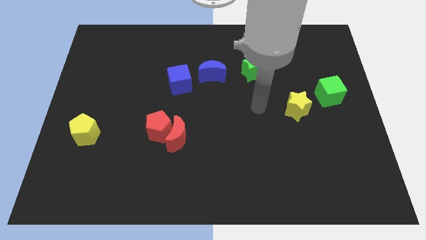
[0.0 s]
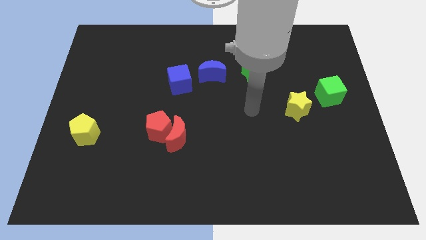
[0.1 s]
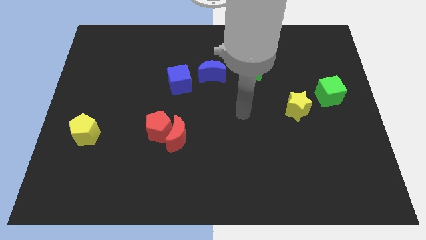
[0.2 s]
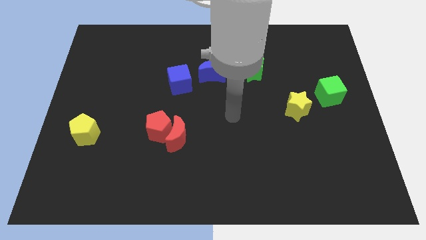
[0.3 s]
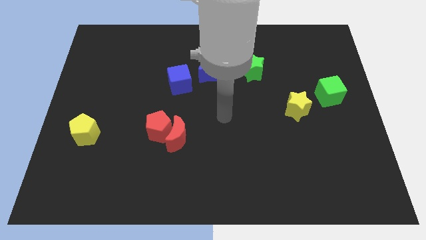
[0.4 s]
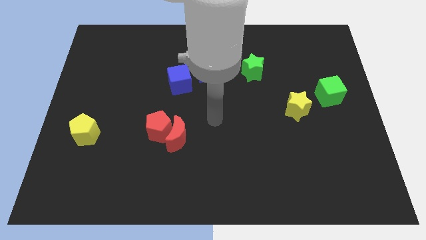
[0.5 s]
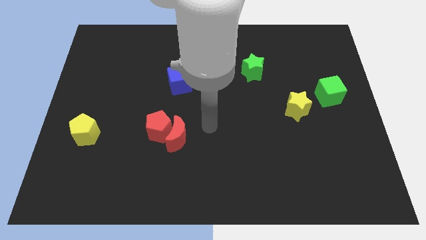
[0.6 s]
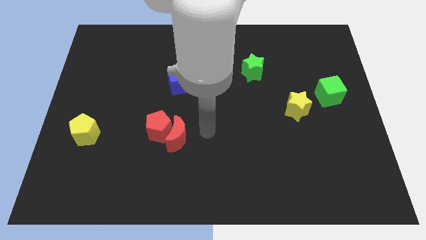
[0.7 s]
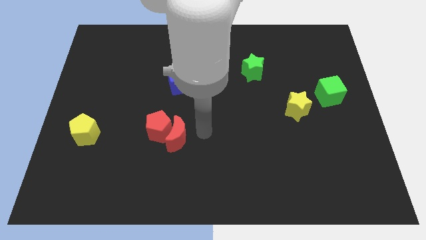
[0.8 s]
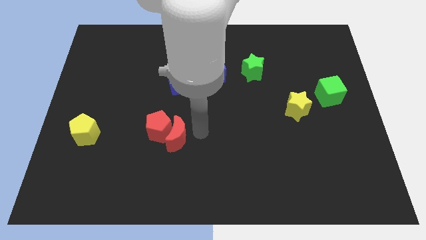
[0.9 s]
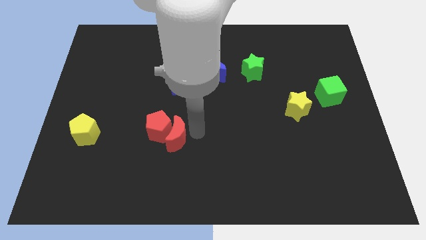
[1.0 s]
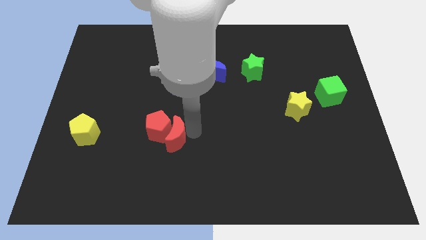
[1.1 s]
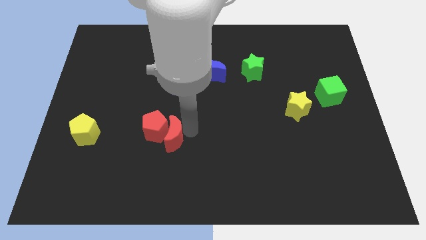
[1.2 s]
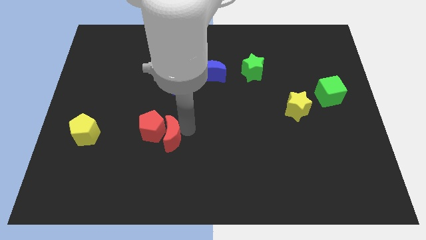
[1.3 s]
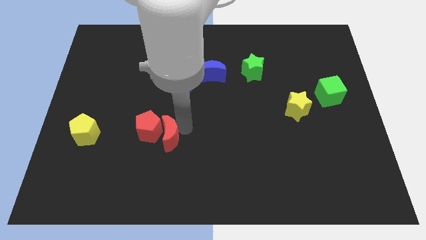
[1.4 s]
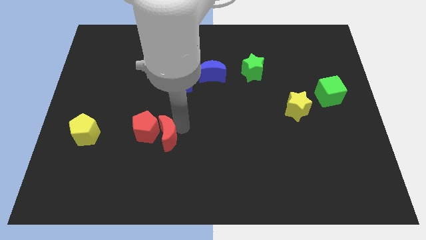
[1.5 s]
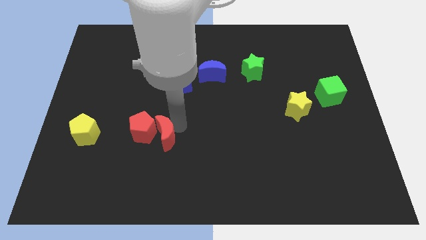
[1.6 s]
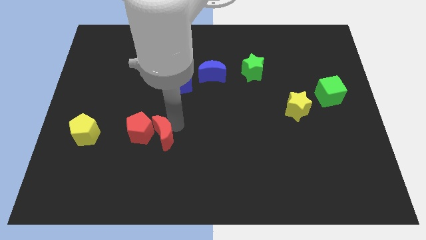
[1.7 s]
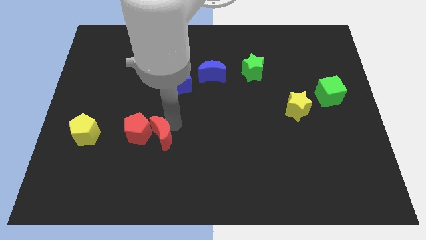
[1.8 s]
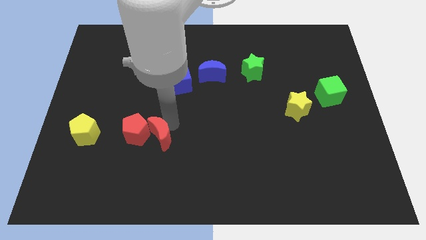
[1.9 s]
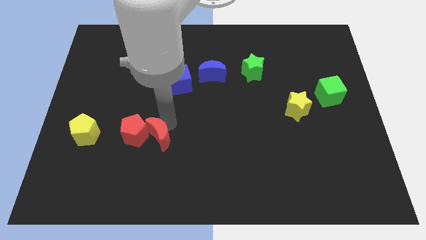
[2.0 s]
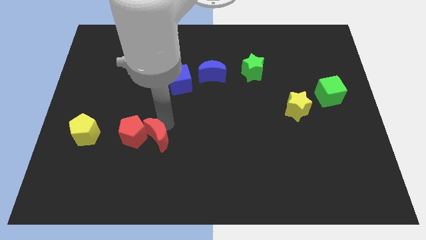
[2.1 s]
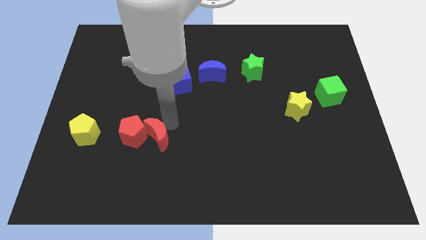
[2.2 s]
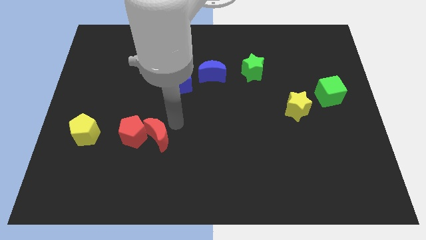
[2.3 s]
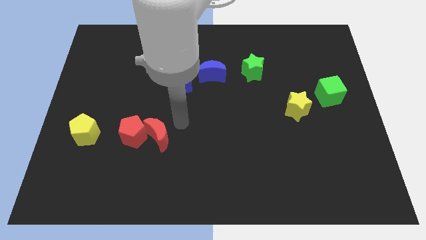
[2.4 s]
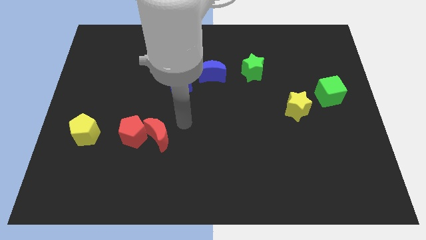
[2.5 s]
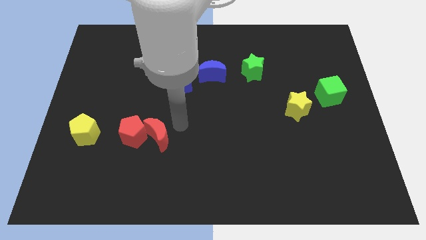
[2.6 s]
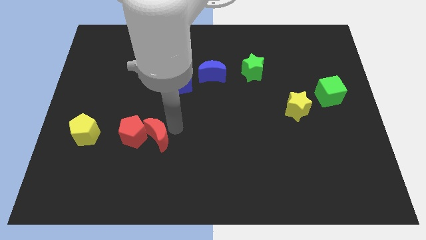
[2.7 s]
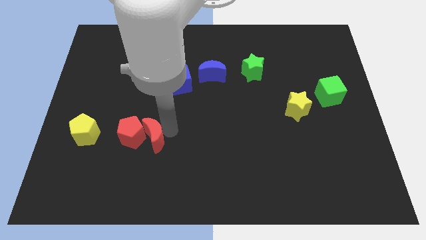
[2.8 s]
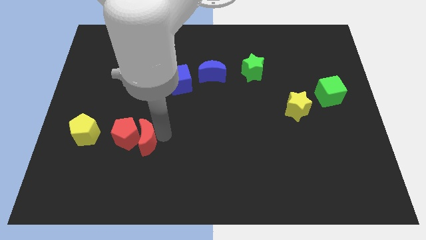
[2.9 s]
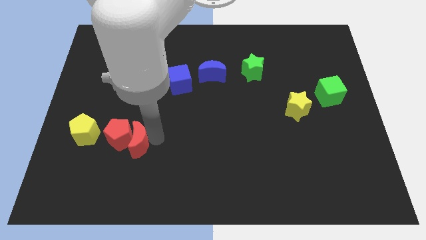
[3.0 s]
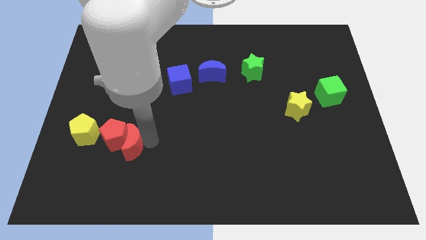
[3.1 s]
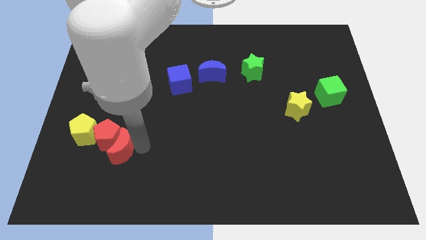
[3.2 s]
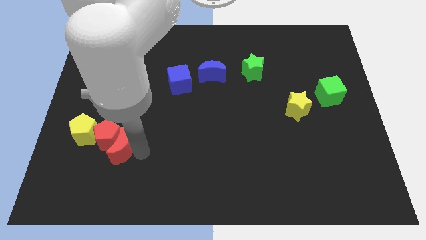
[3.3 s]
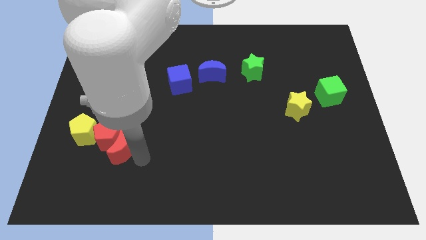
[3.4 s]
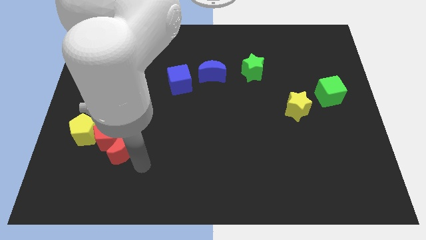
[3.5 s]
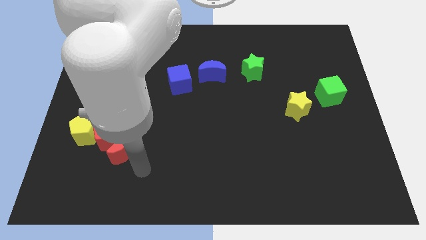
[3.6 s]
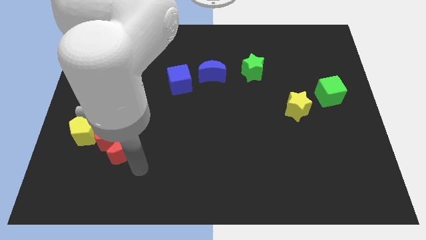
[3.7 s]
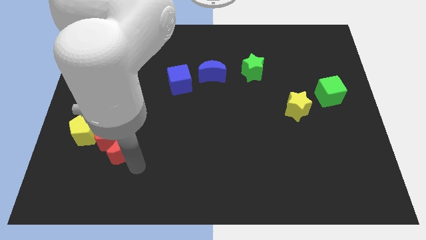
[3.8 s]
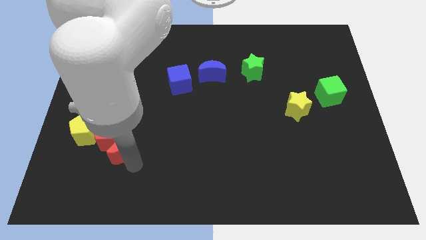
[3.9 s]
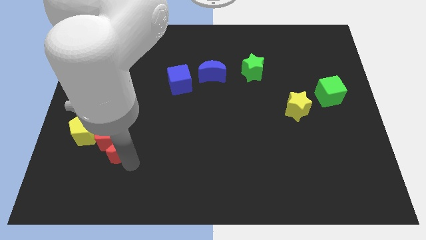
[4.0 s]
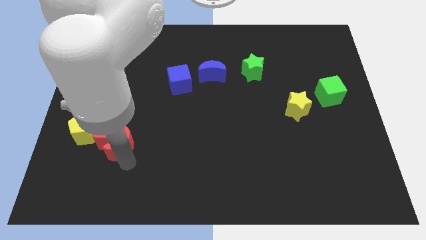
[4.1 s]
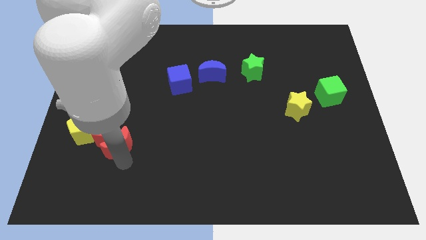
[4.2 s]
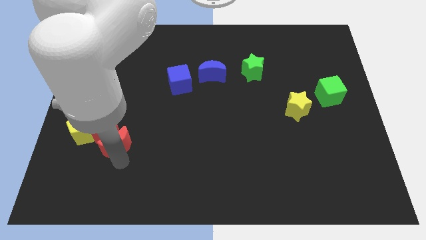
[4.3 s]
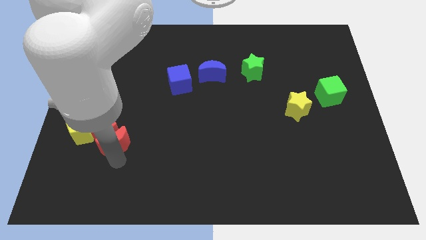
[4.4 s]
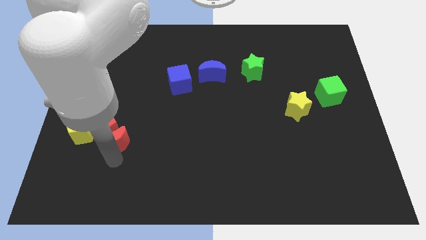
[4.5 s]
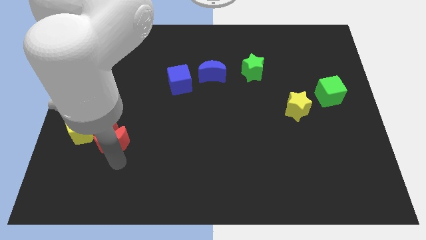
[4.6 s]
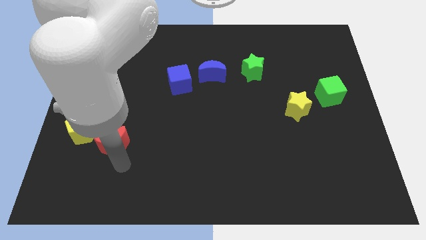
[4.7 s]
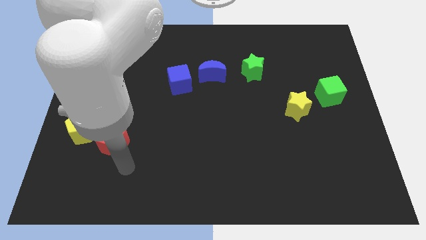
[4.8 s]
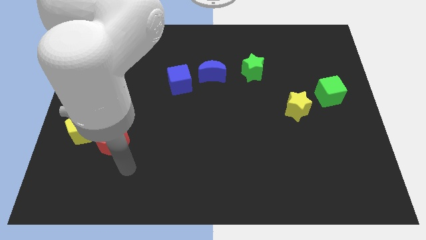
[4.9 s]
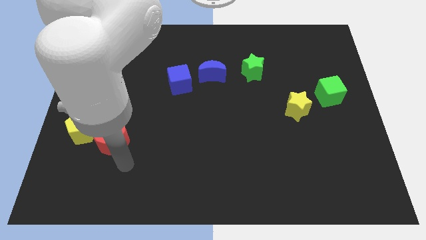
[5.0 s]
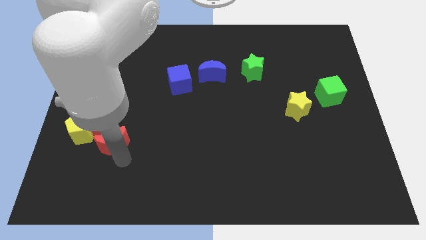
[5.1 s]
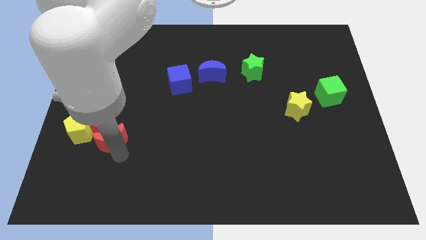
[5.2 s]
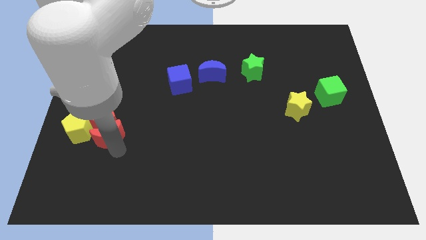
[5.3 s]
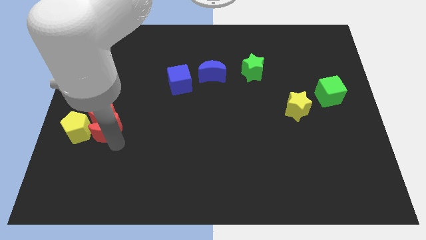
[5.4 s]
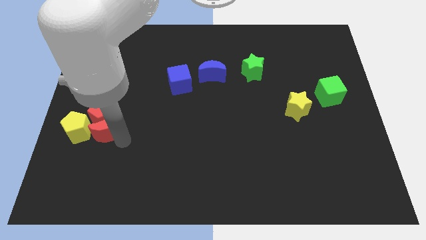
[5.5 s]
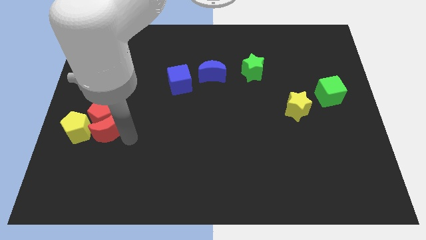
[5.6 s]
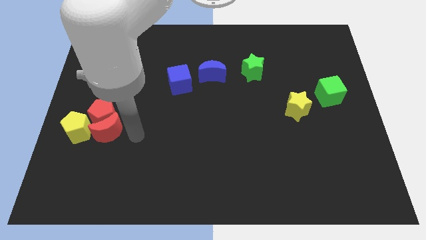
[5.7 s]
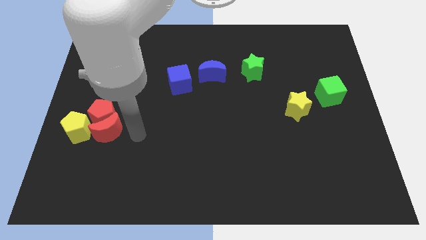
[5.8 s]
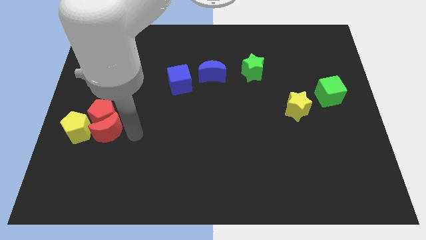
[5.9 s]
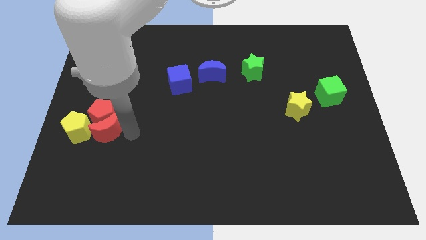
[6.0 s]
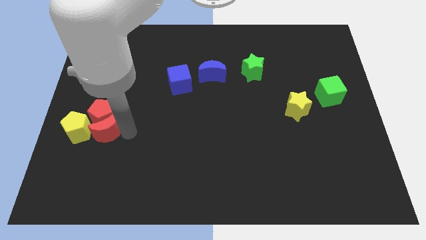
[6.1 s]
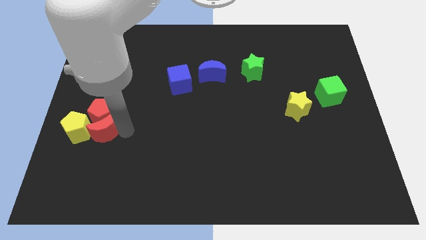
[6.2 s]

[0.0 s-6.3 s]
push the red moon close to the yellow pentagon

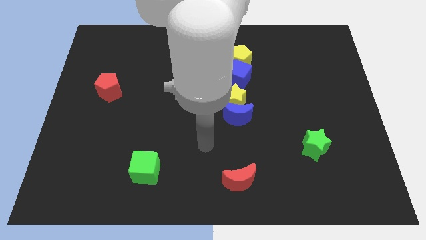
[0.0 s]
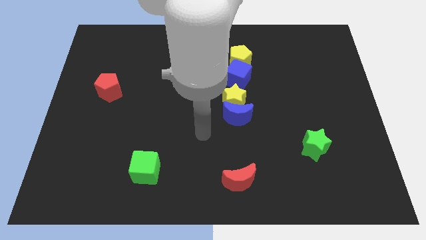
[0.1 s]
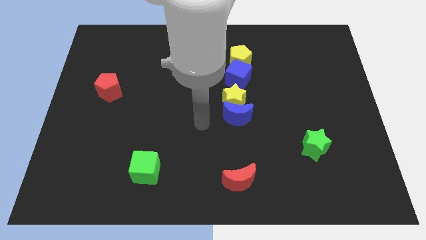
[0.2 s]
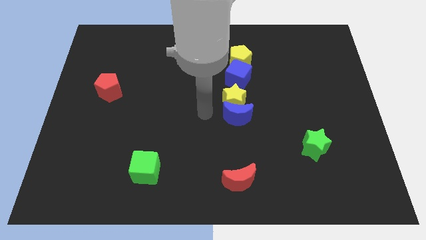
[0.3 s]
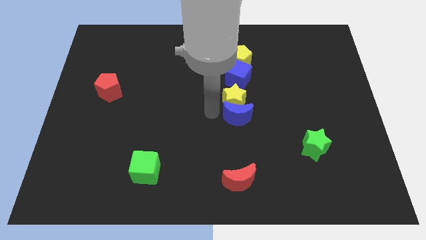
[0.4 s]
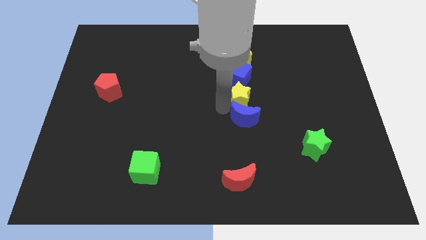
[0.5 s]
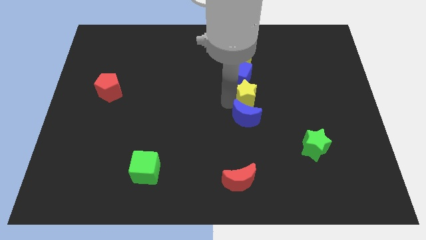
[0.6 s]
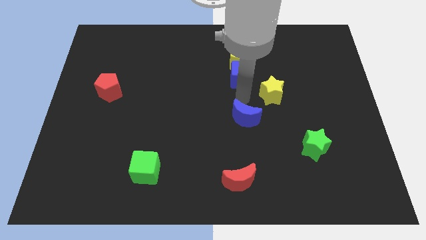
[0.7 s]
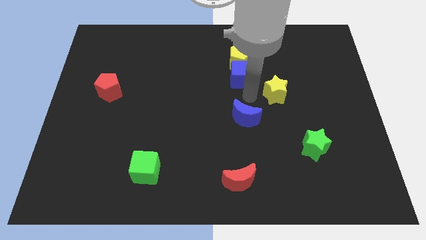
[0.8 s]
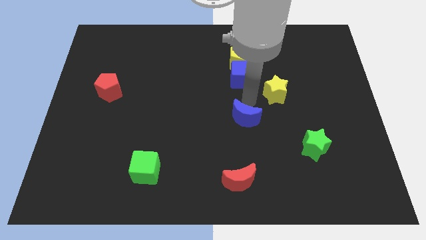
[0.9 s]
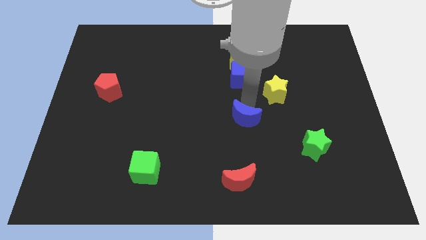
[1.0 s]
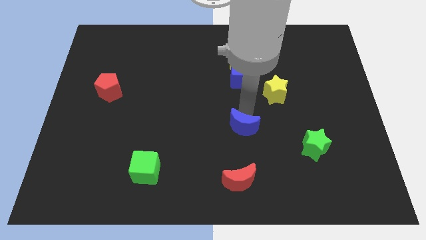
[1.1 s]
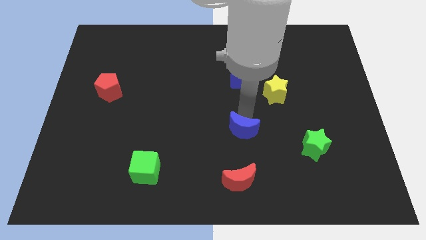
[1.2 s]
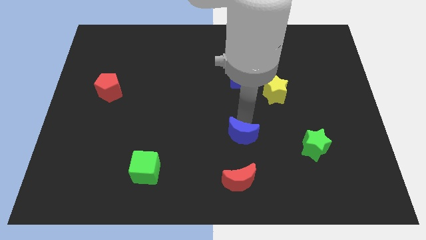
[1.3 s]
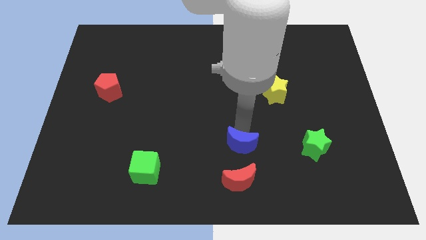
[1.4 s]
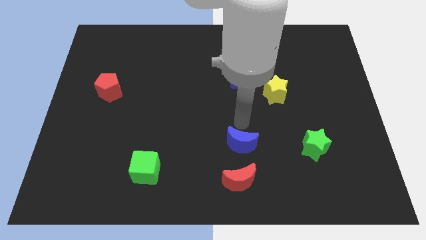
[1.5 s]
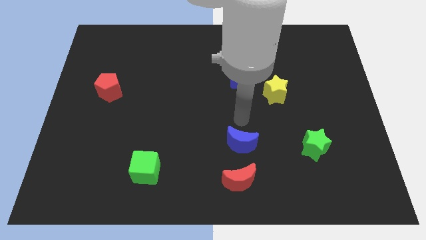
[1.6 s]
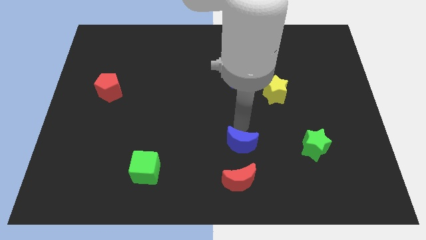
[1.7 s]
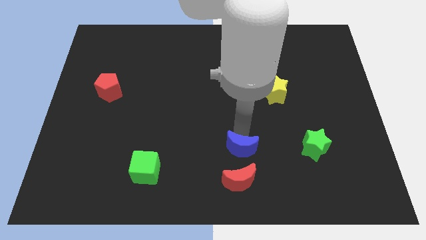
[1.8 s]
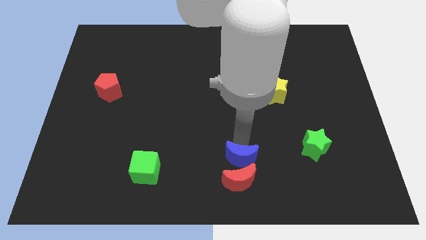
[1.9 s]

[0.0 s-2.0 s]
move the blue moon to the red moon
